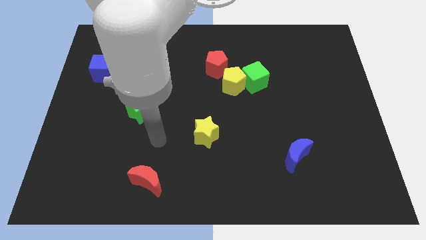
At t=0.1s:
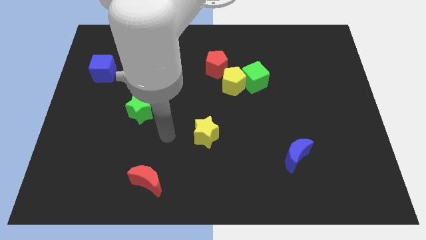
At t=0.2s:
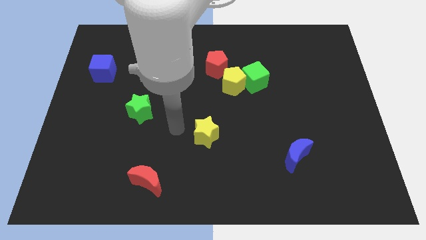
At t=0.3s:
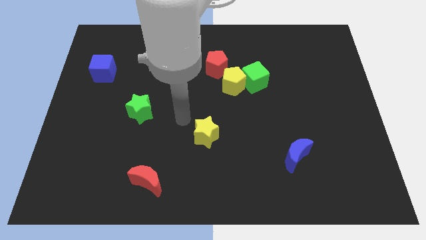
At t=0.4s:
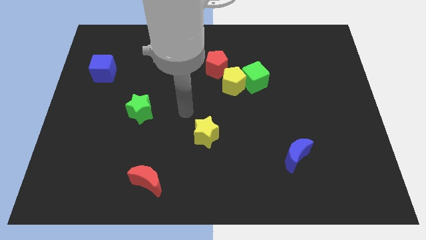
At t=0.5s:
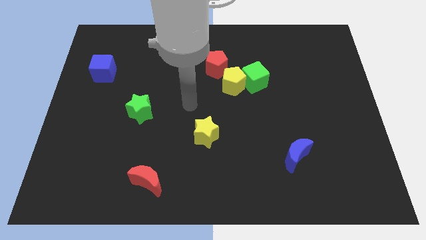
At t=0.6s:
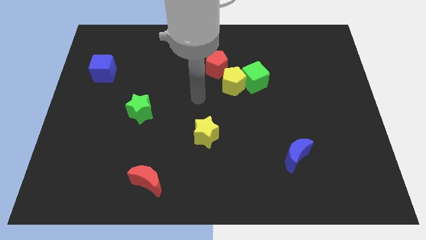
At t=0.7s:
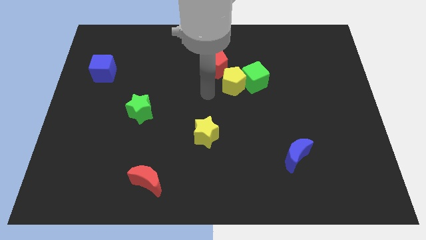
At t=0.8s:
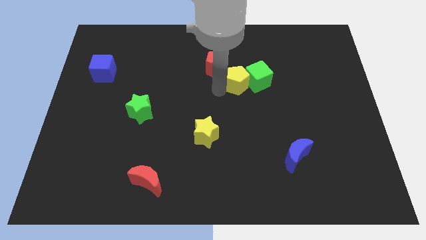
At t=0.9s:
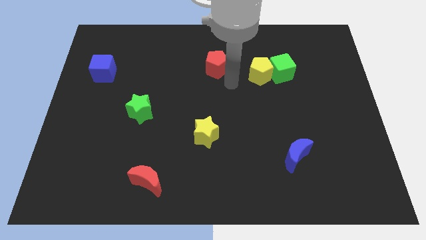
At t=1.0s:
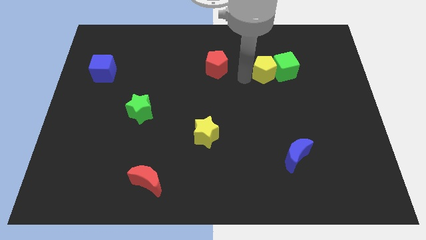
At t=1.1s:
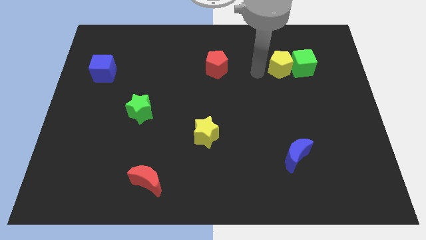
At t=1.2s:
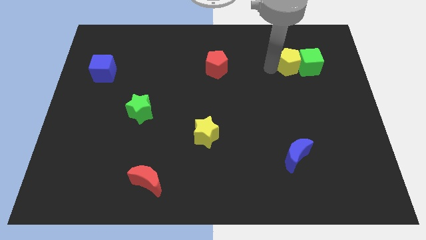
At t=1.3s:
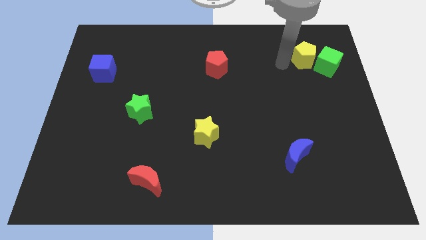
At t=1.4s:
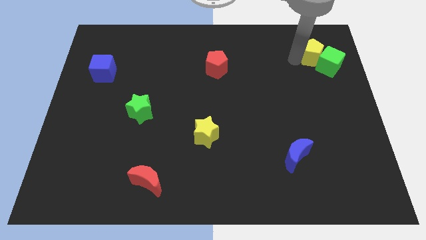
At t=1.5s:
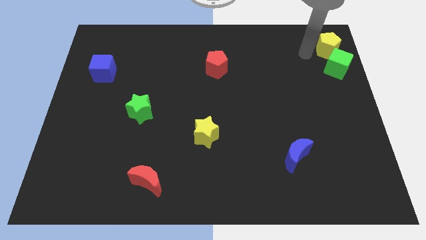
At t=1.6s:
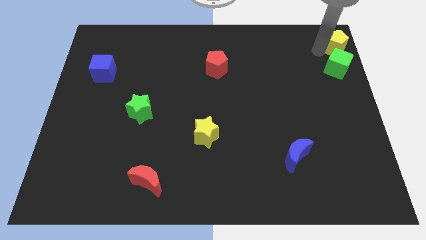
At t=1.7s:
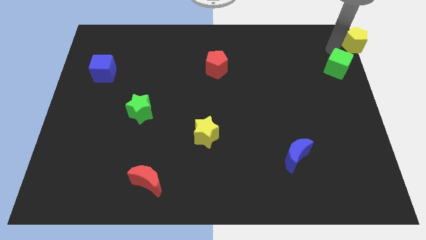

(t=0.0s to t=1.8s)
move the green cube away from the yellow pentagon

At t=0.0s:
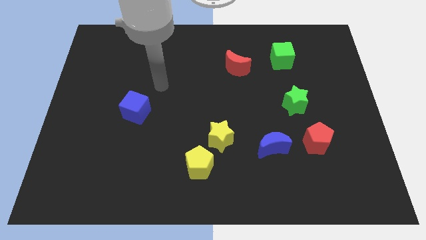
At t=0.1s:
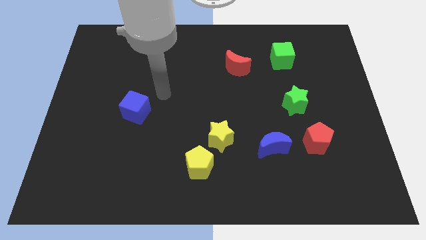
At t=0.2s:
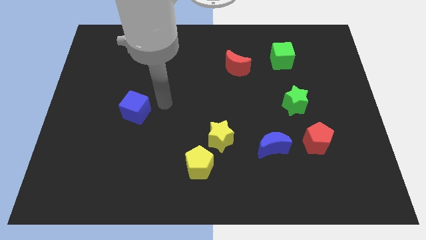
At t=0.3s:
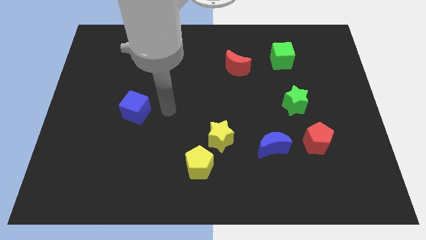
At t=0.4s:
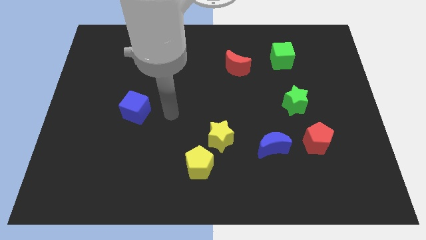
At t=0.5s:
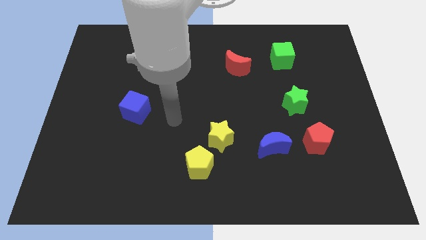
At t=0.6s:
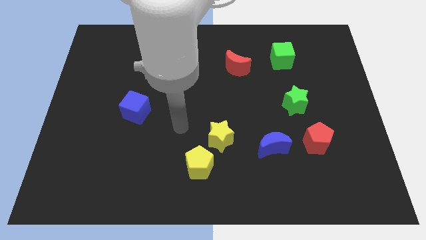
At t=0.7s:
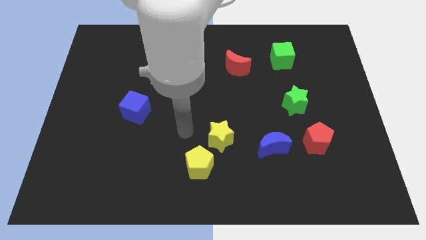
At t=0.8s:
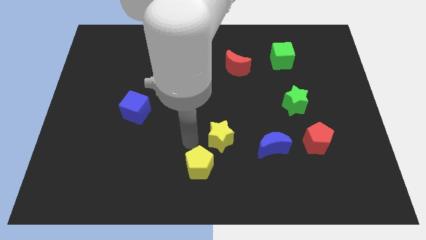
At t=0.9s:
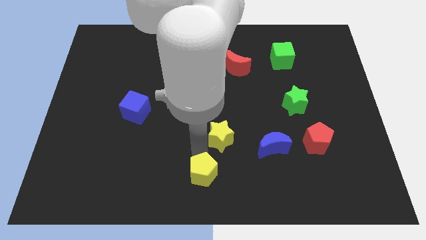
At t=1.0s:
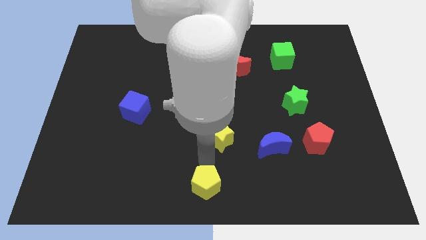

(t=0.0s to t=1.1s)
move the yellow star away from the yellow pentagon

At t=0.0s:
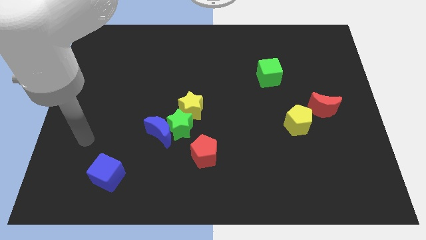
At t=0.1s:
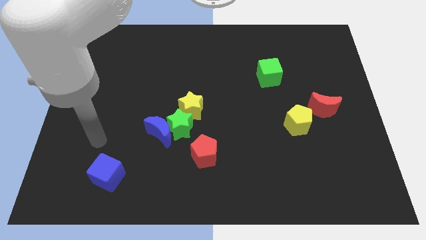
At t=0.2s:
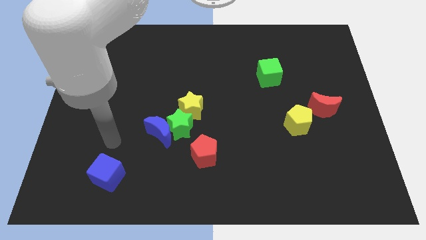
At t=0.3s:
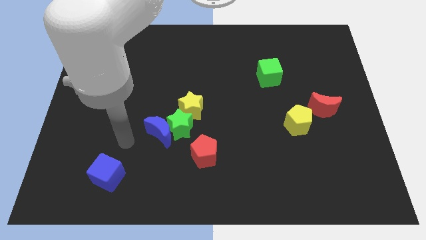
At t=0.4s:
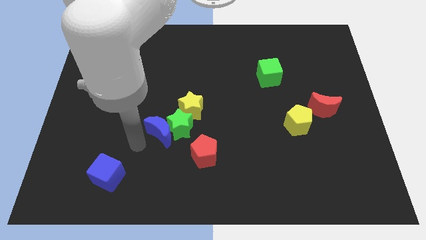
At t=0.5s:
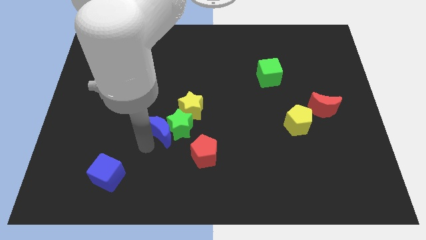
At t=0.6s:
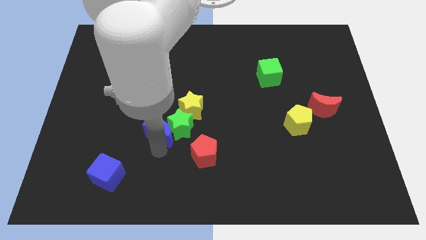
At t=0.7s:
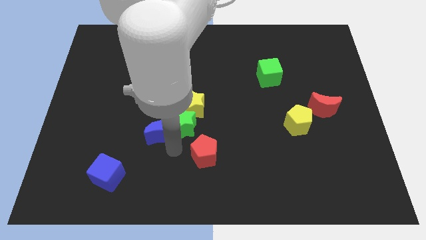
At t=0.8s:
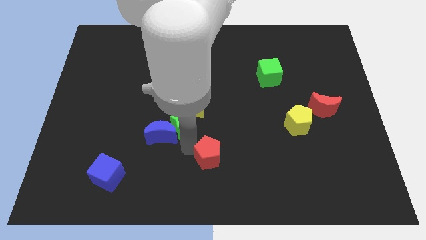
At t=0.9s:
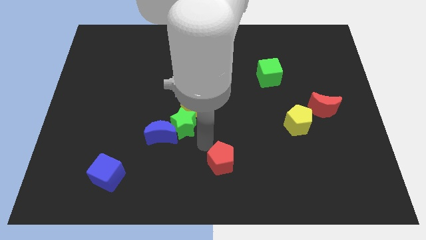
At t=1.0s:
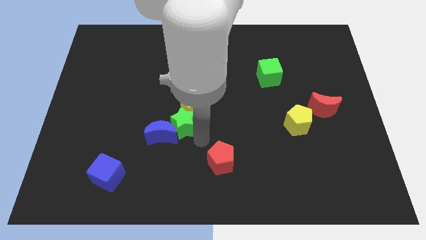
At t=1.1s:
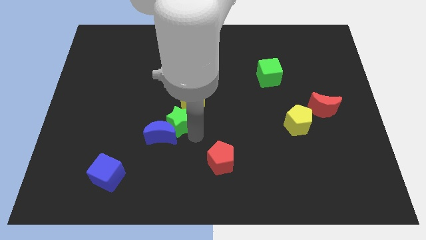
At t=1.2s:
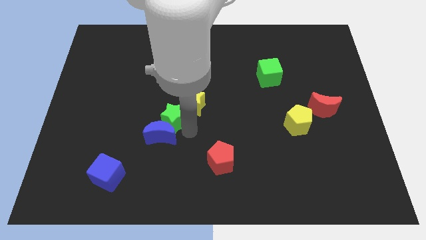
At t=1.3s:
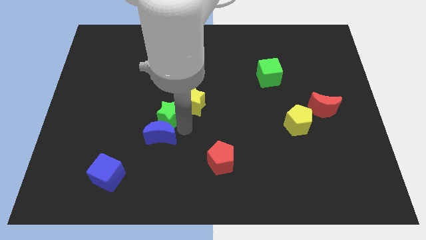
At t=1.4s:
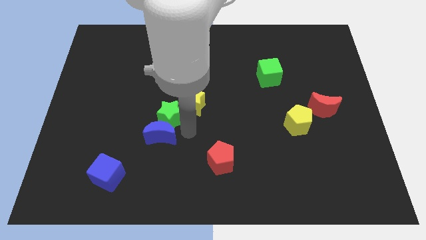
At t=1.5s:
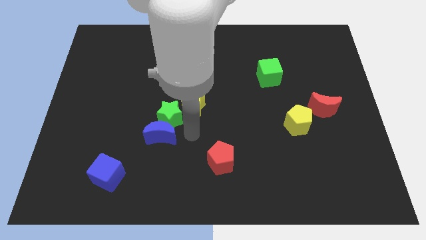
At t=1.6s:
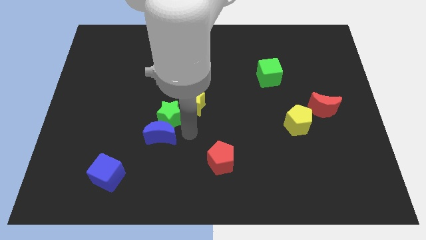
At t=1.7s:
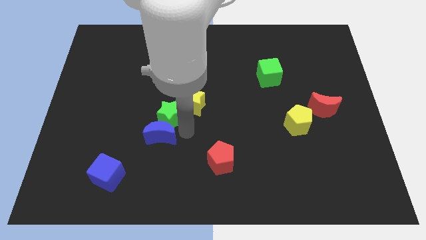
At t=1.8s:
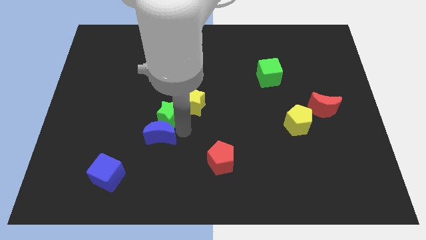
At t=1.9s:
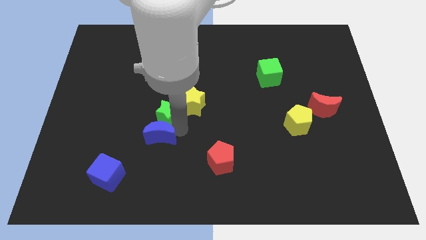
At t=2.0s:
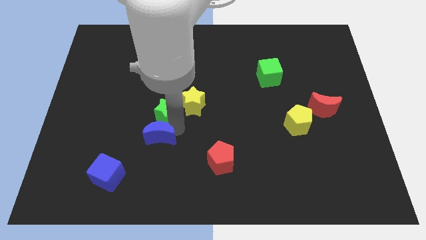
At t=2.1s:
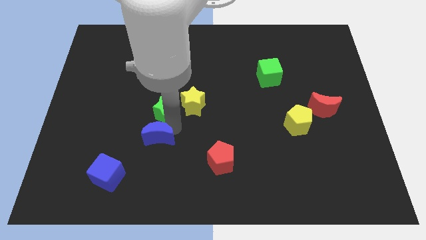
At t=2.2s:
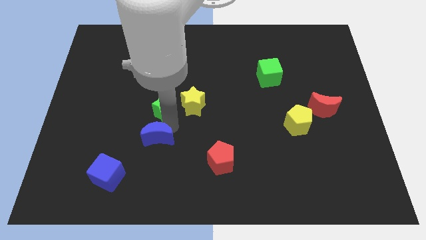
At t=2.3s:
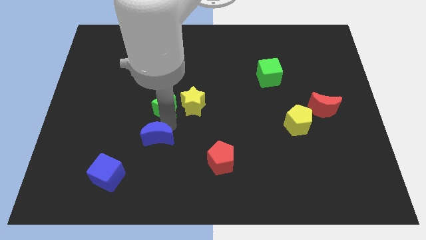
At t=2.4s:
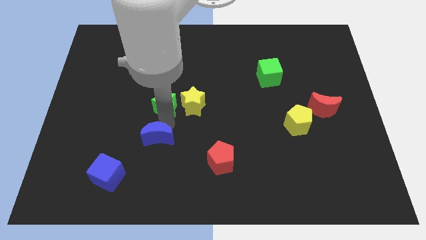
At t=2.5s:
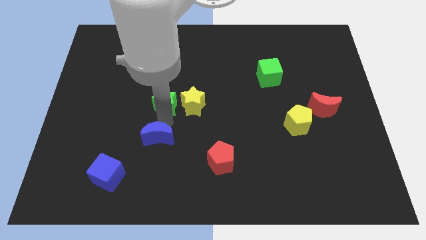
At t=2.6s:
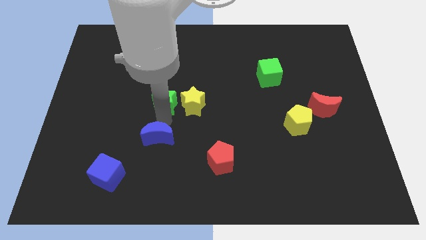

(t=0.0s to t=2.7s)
move the green star away from the blue moon, yellow star, and red pentagon

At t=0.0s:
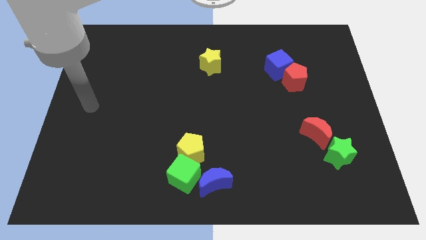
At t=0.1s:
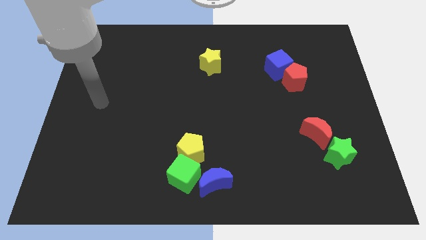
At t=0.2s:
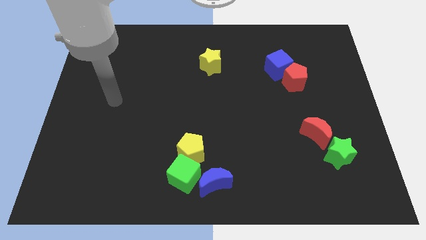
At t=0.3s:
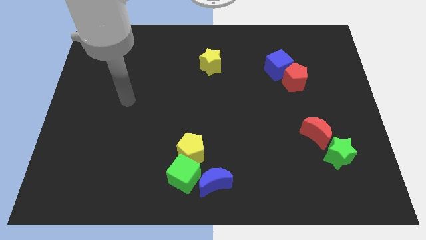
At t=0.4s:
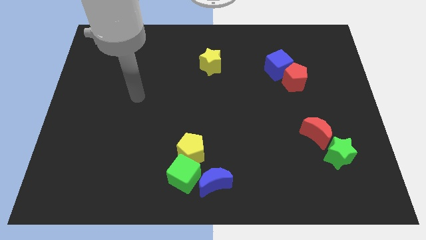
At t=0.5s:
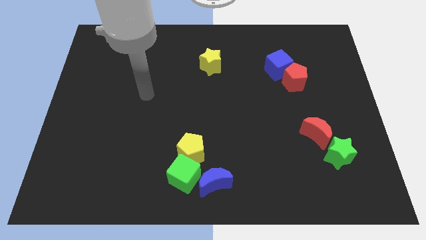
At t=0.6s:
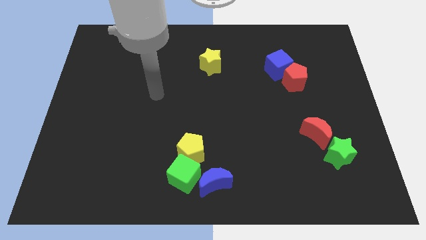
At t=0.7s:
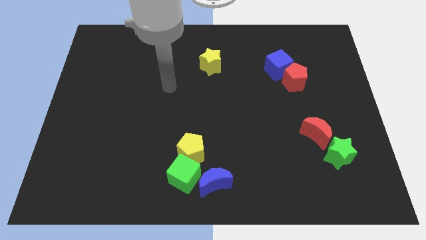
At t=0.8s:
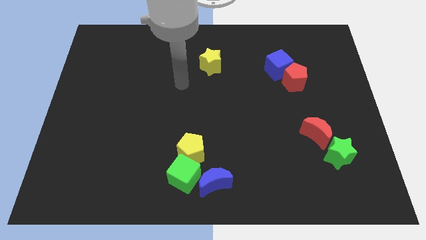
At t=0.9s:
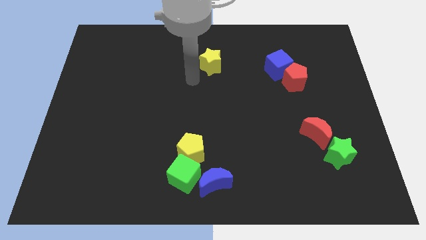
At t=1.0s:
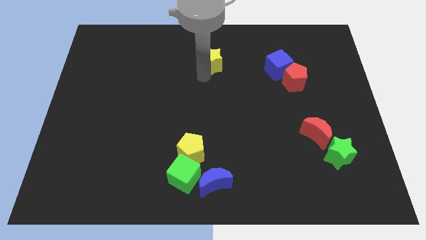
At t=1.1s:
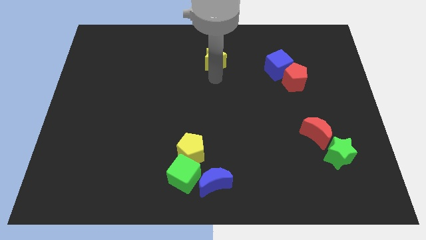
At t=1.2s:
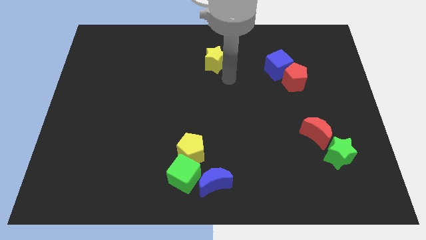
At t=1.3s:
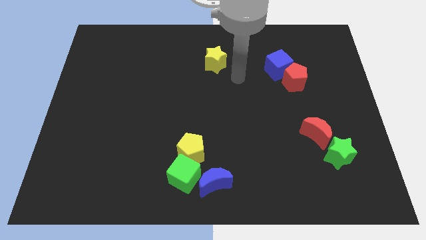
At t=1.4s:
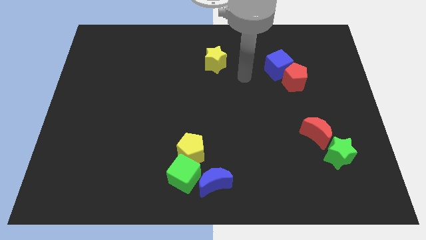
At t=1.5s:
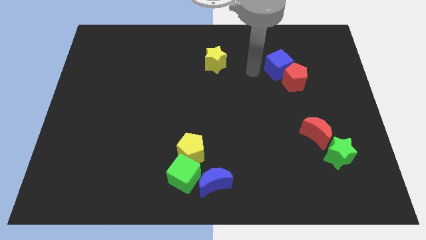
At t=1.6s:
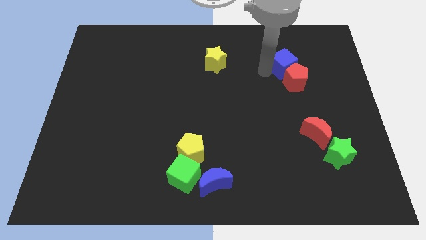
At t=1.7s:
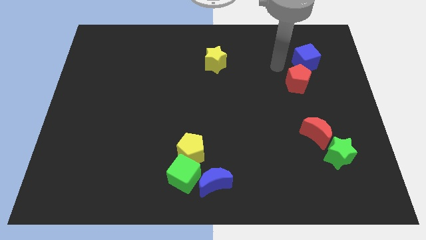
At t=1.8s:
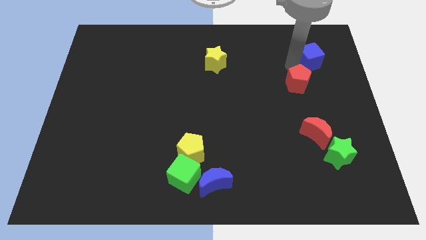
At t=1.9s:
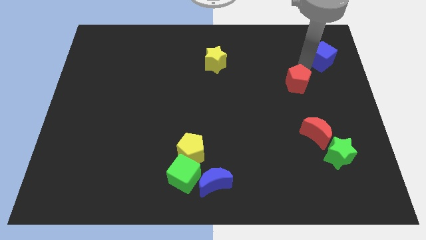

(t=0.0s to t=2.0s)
separate the red pentagon from the blue cube

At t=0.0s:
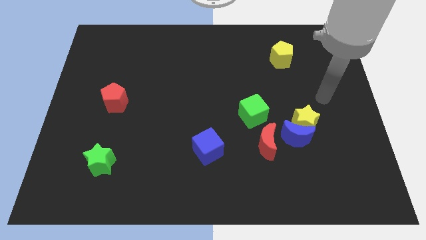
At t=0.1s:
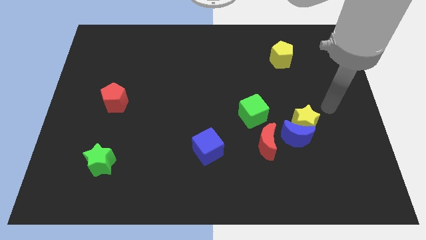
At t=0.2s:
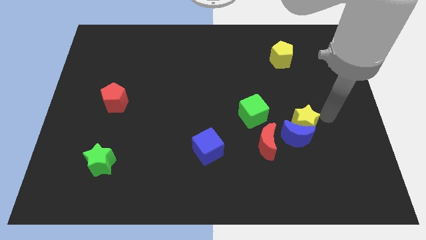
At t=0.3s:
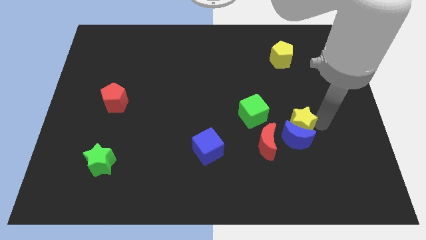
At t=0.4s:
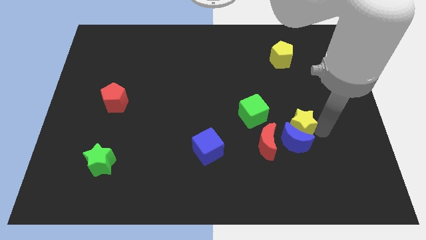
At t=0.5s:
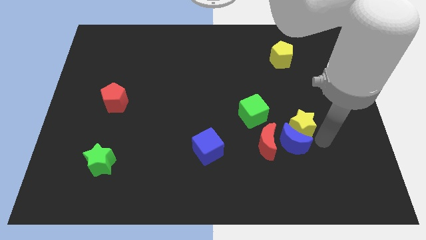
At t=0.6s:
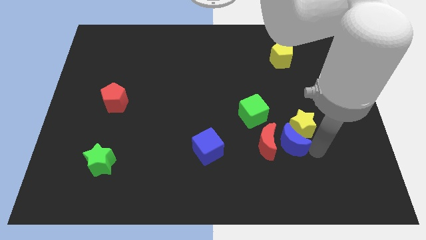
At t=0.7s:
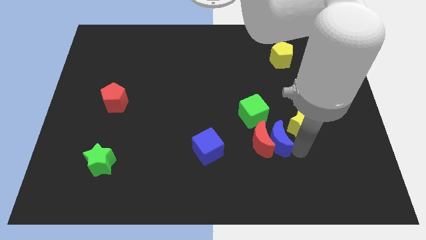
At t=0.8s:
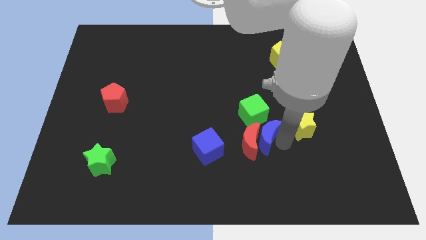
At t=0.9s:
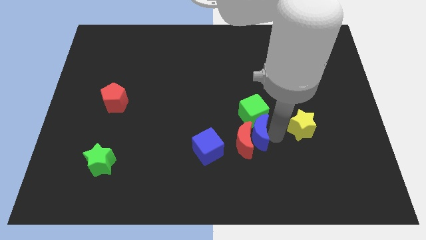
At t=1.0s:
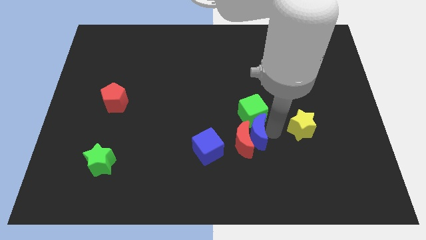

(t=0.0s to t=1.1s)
move the yellow star away from the blue moon

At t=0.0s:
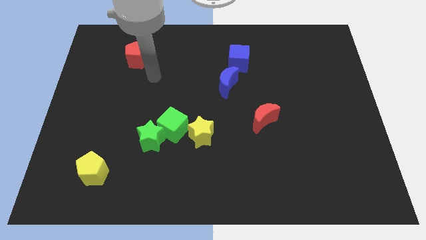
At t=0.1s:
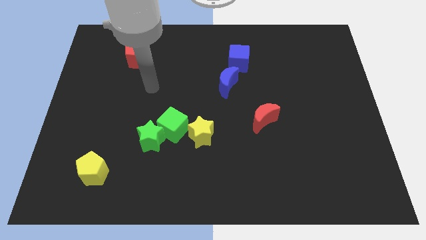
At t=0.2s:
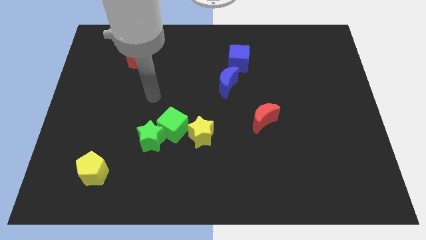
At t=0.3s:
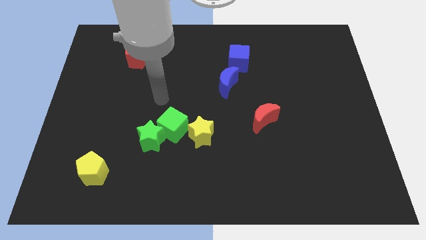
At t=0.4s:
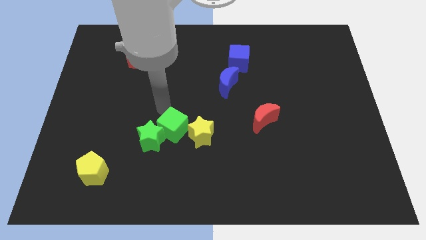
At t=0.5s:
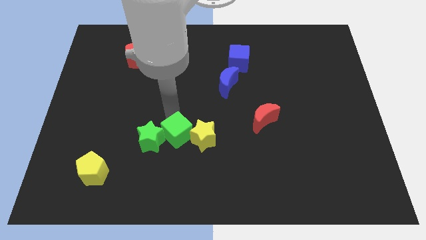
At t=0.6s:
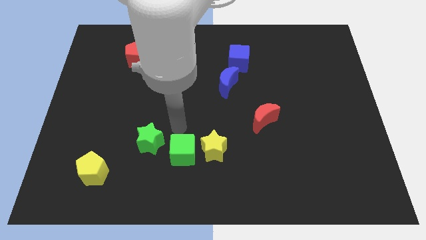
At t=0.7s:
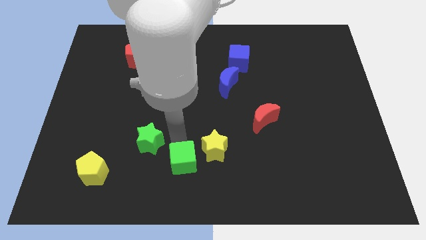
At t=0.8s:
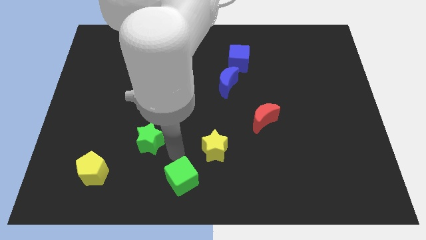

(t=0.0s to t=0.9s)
move the green star away from the green cube
